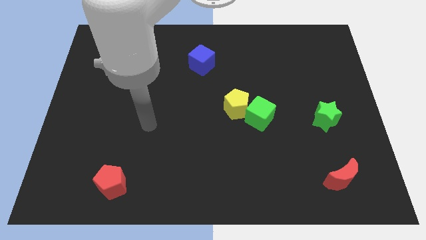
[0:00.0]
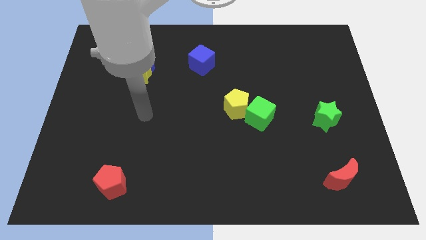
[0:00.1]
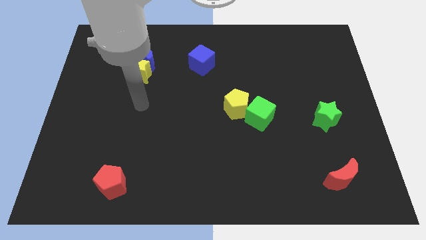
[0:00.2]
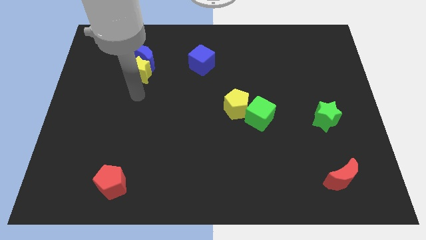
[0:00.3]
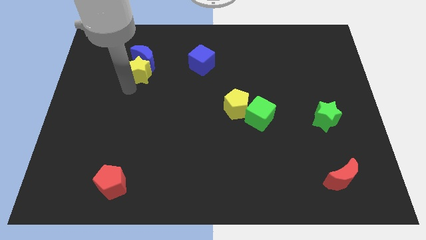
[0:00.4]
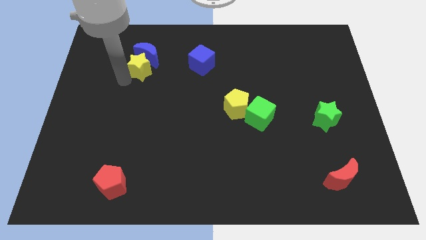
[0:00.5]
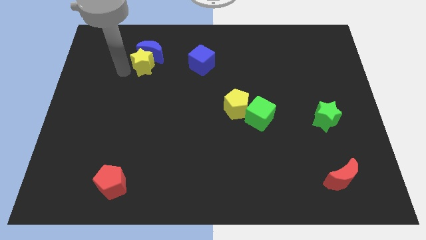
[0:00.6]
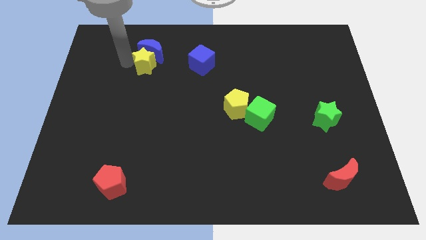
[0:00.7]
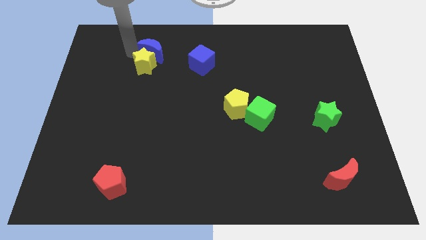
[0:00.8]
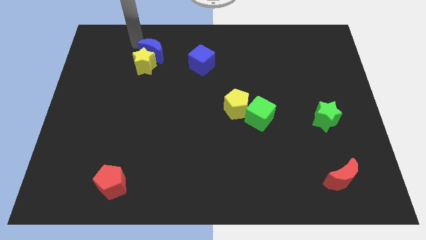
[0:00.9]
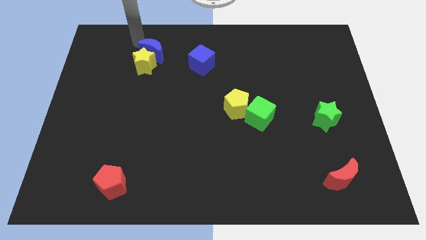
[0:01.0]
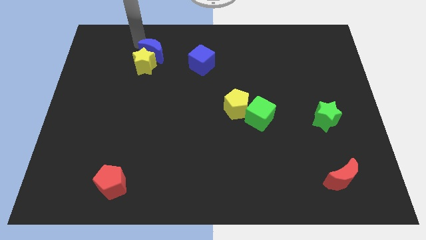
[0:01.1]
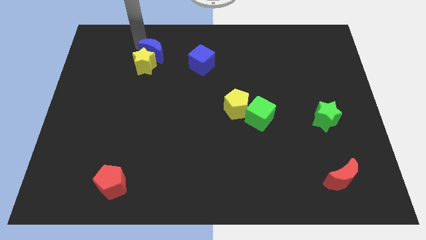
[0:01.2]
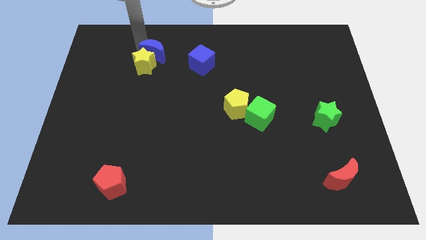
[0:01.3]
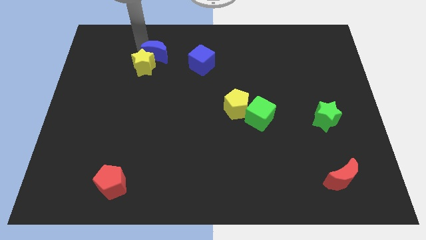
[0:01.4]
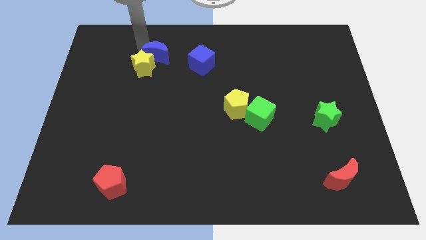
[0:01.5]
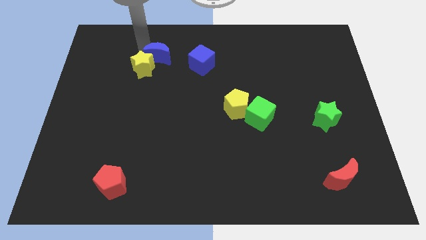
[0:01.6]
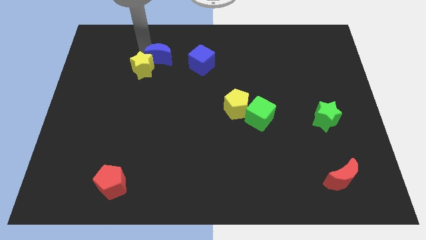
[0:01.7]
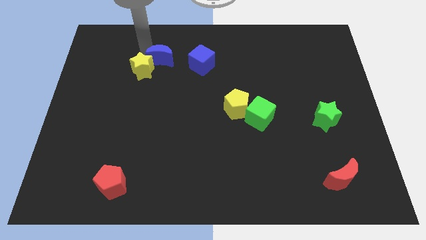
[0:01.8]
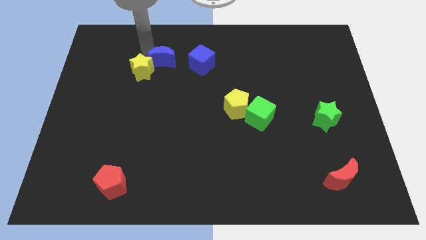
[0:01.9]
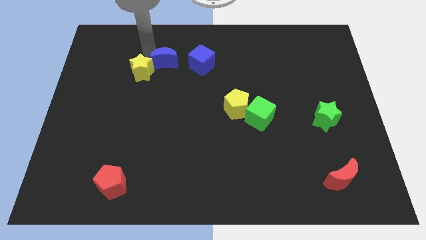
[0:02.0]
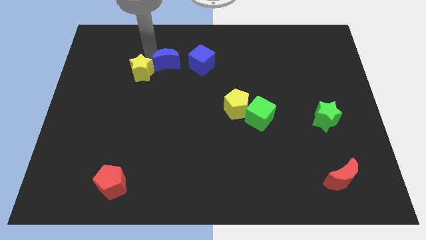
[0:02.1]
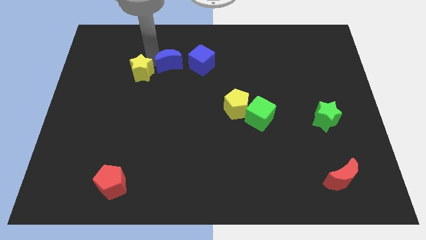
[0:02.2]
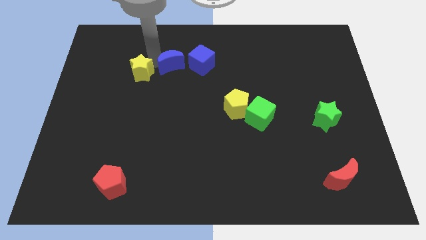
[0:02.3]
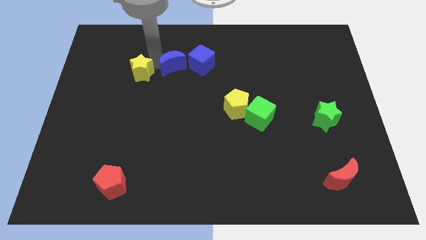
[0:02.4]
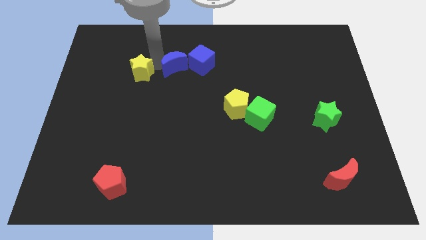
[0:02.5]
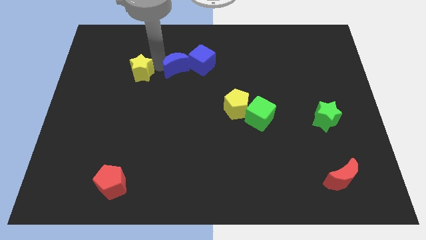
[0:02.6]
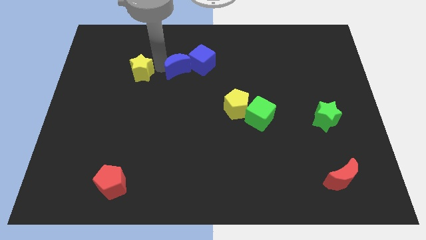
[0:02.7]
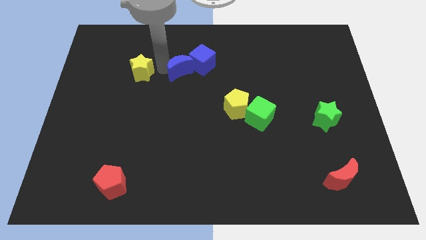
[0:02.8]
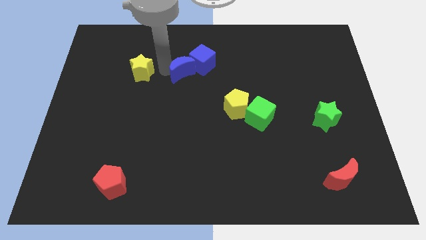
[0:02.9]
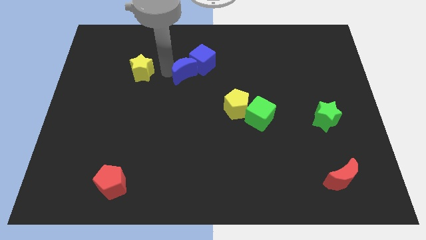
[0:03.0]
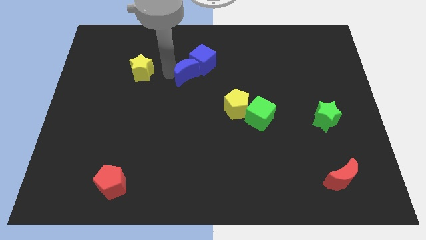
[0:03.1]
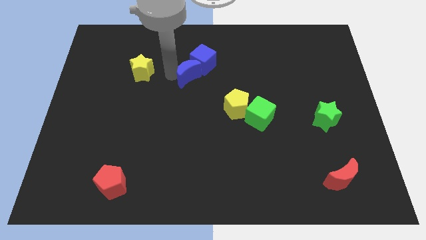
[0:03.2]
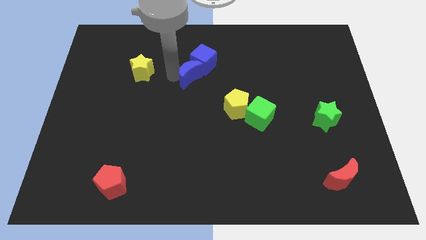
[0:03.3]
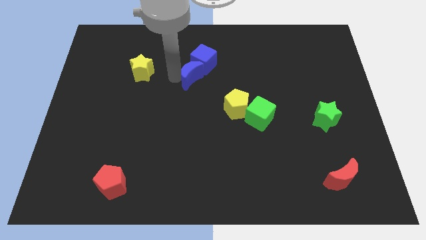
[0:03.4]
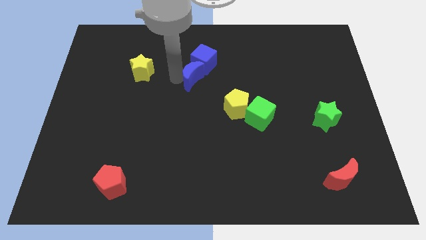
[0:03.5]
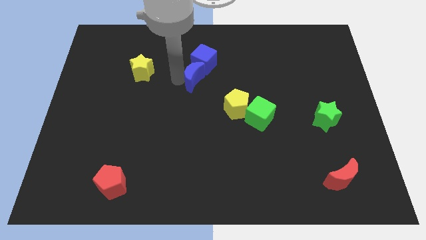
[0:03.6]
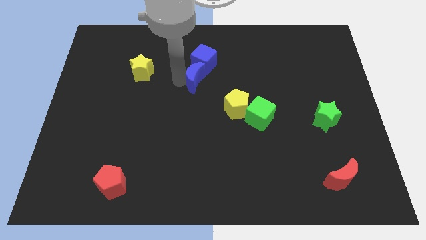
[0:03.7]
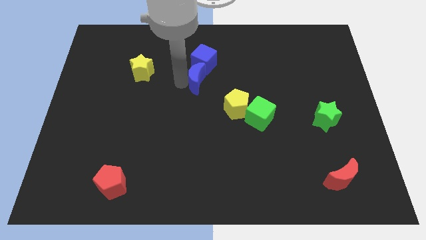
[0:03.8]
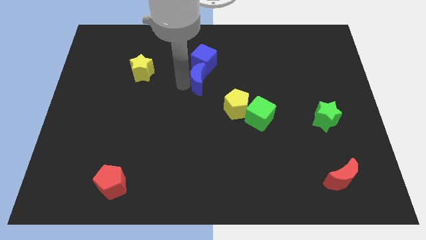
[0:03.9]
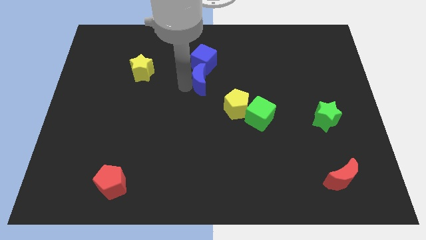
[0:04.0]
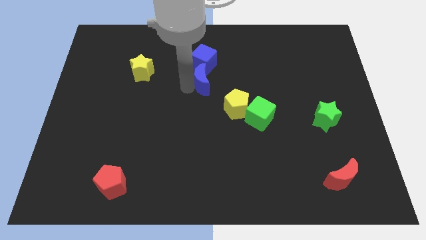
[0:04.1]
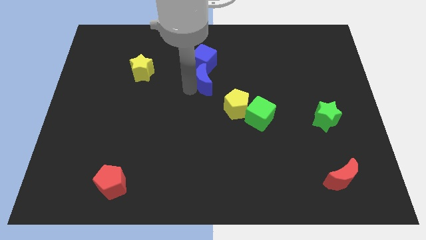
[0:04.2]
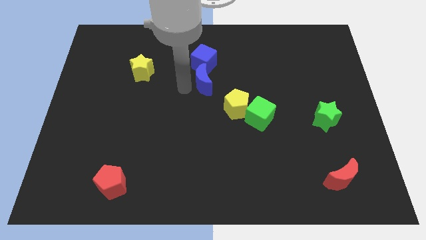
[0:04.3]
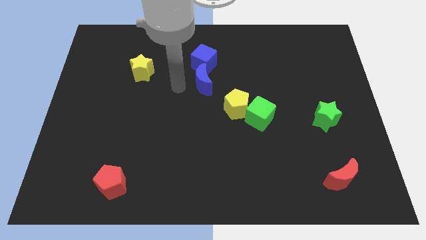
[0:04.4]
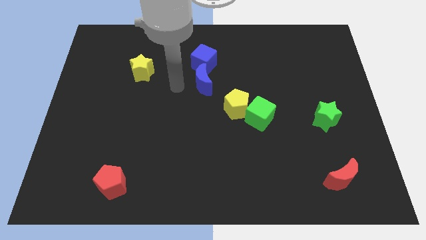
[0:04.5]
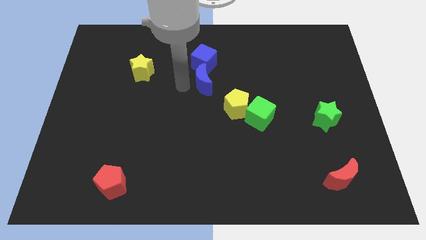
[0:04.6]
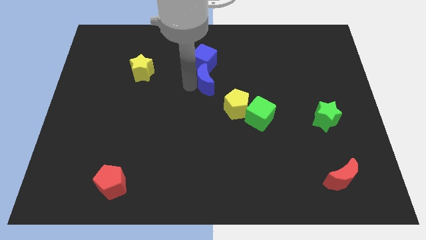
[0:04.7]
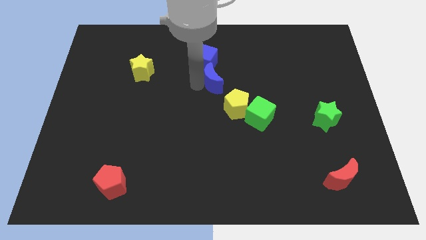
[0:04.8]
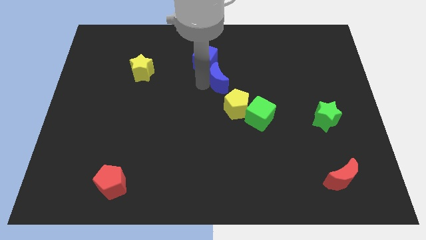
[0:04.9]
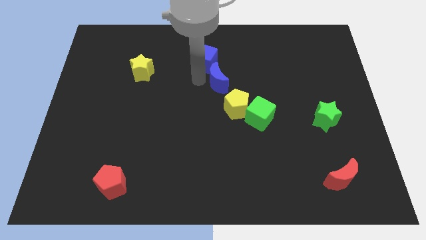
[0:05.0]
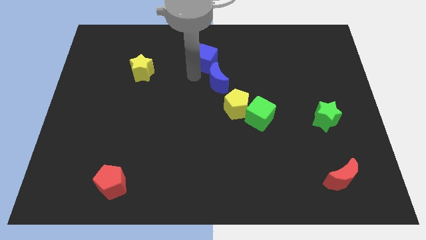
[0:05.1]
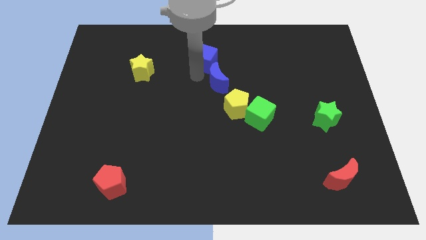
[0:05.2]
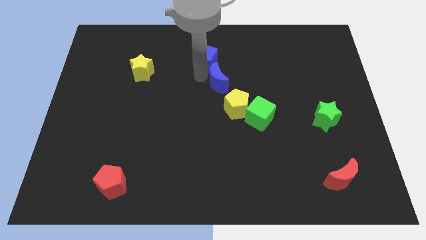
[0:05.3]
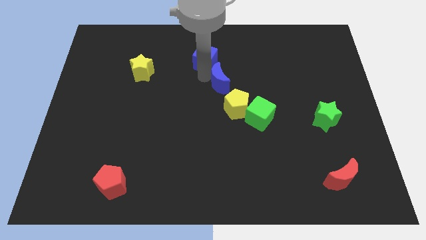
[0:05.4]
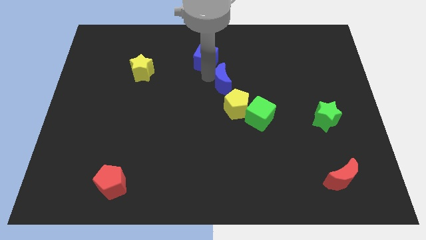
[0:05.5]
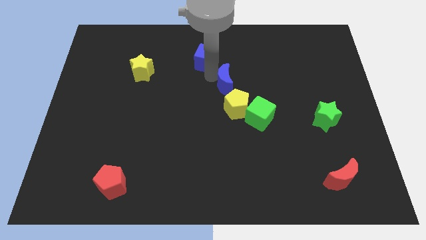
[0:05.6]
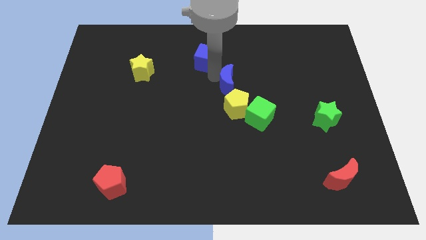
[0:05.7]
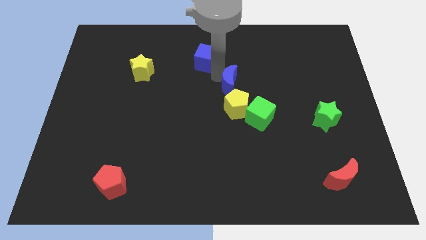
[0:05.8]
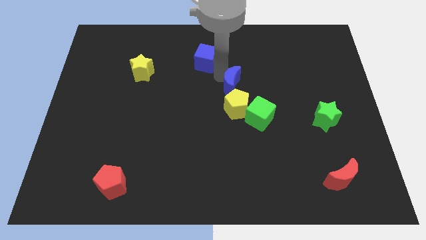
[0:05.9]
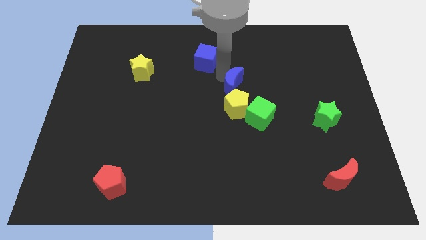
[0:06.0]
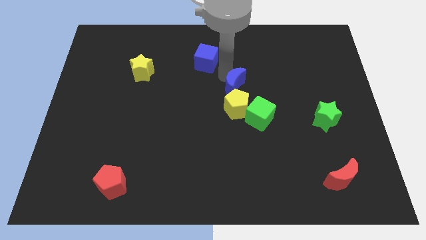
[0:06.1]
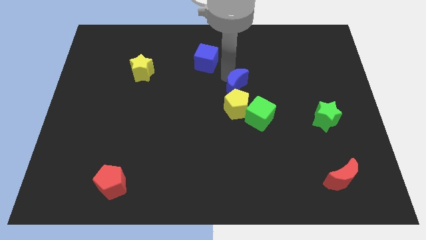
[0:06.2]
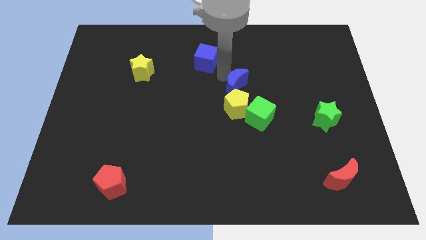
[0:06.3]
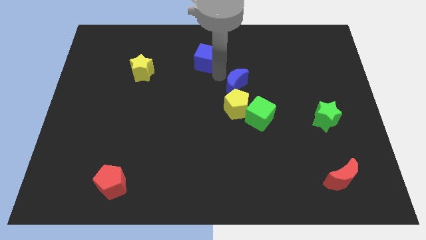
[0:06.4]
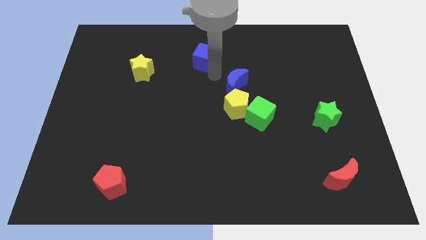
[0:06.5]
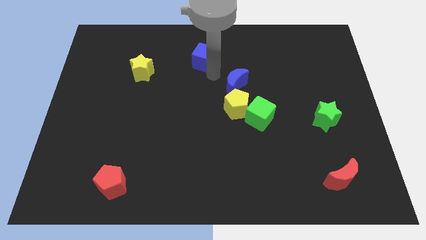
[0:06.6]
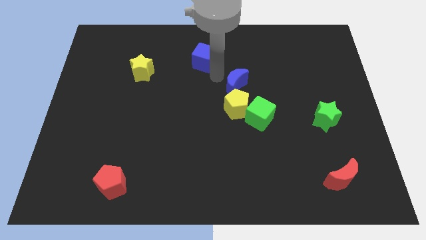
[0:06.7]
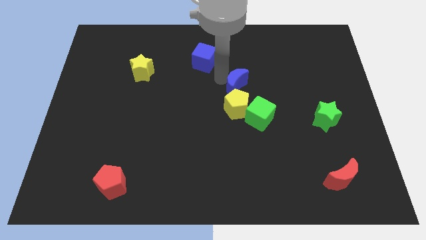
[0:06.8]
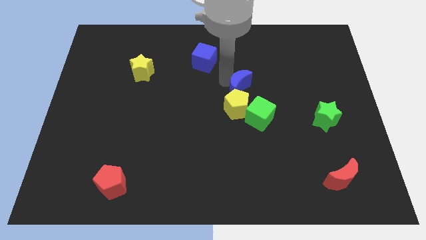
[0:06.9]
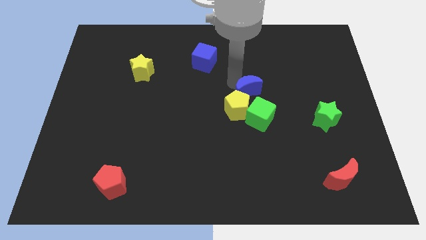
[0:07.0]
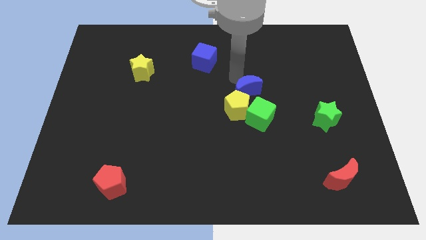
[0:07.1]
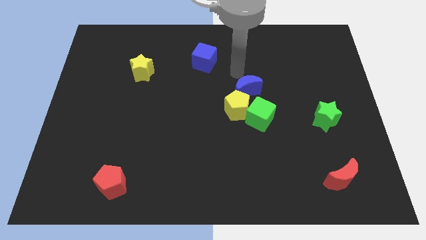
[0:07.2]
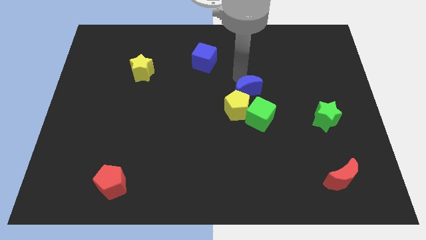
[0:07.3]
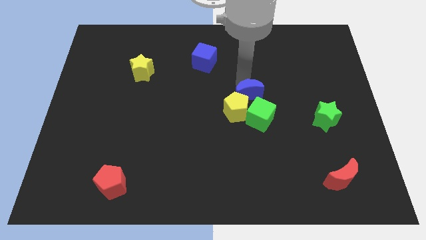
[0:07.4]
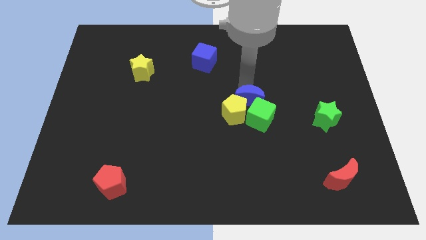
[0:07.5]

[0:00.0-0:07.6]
slide the blue moon towards the green cube
